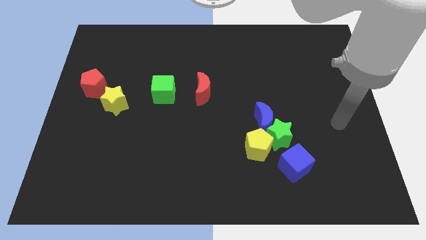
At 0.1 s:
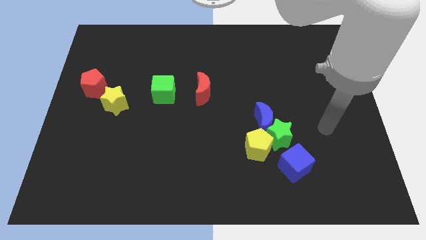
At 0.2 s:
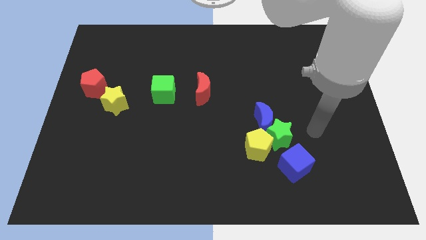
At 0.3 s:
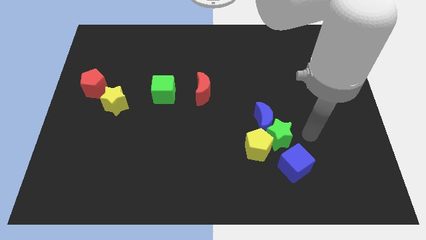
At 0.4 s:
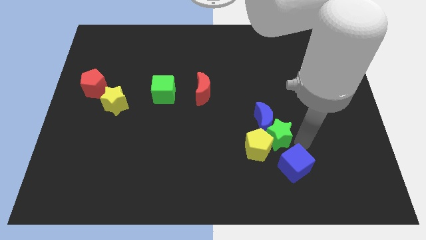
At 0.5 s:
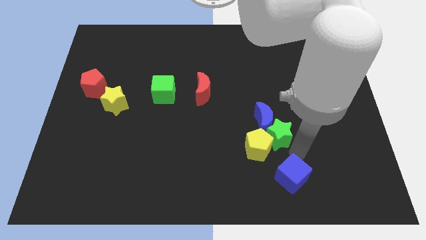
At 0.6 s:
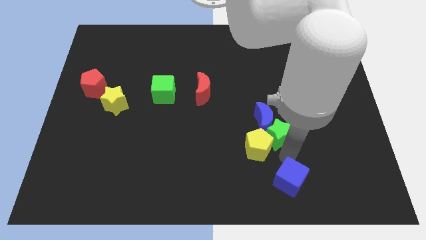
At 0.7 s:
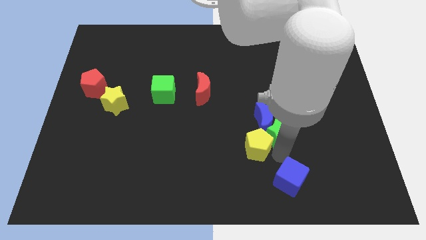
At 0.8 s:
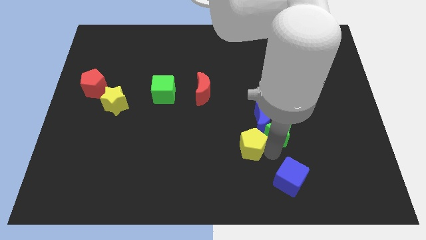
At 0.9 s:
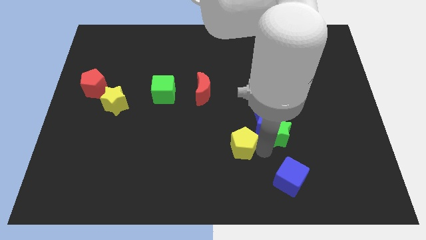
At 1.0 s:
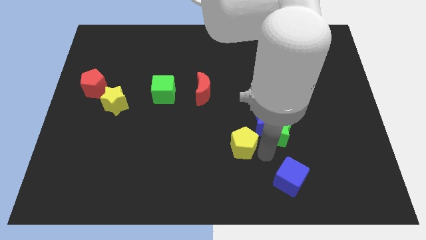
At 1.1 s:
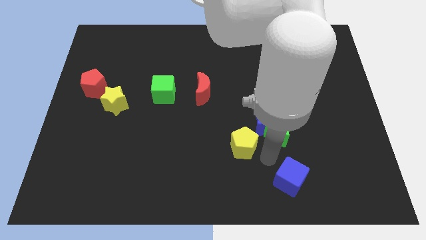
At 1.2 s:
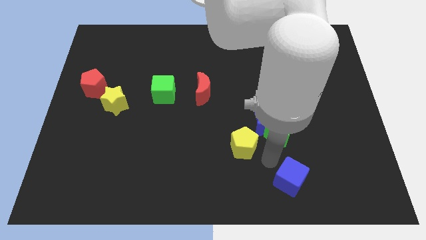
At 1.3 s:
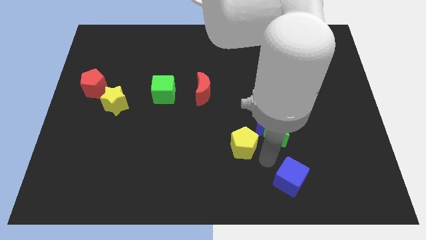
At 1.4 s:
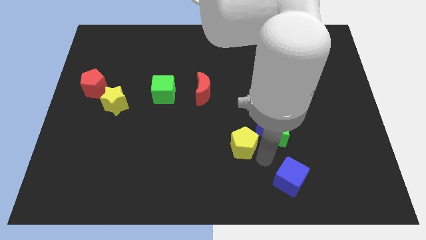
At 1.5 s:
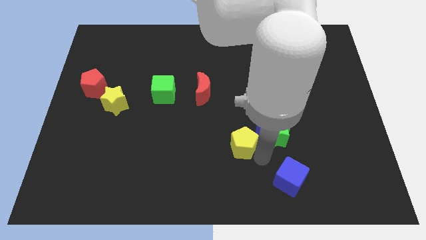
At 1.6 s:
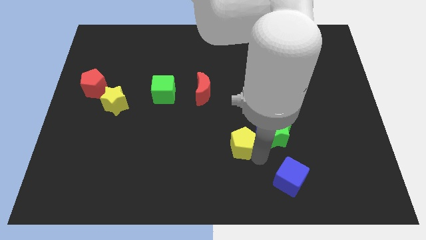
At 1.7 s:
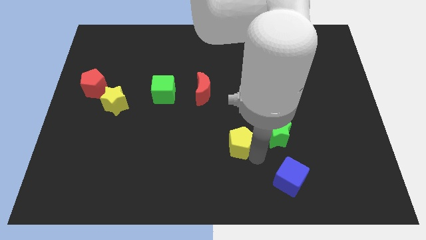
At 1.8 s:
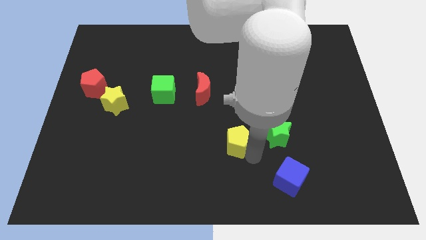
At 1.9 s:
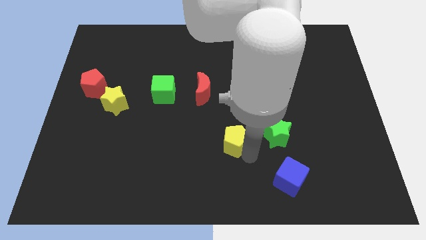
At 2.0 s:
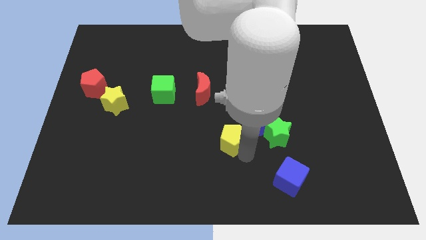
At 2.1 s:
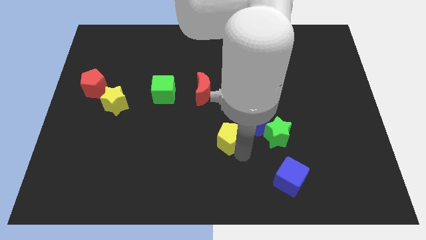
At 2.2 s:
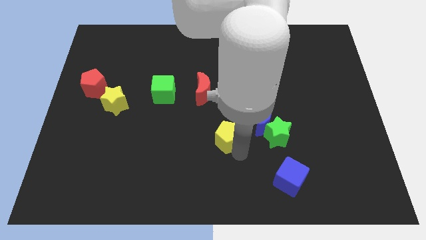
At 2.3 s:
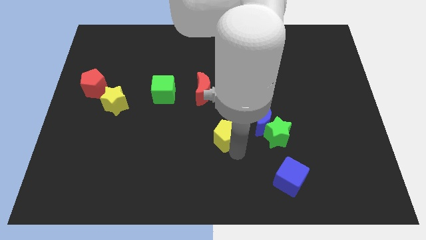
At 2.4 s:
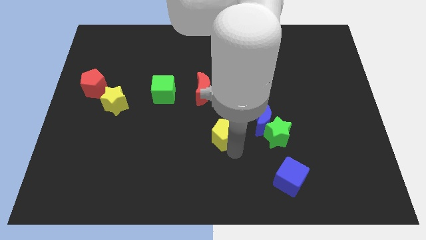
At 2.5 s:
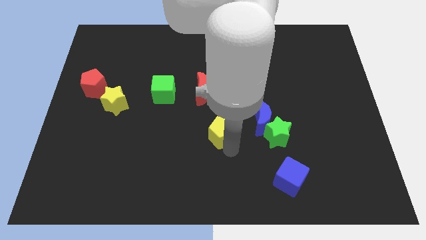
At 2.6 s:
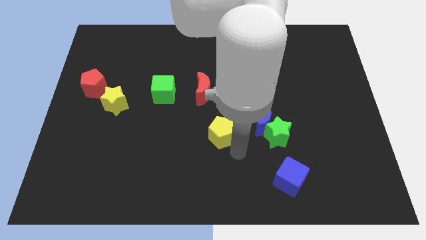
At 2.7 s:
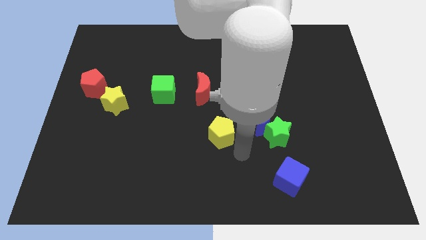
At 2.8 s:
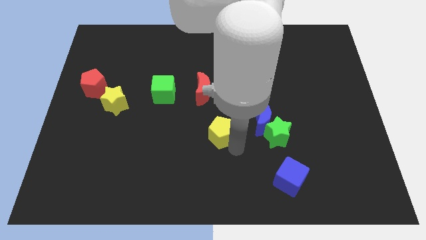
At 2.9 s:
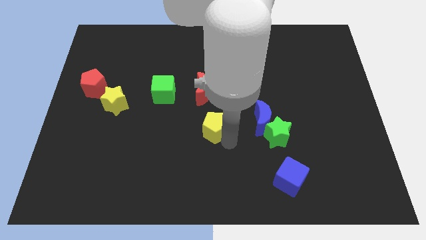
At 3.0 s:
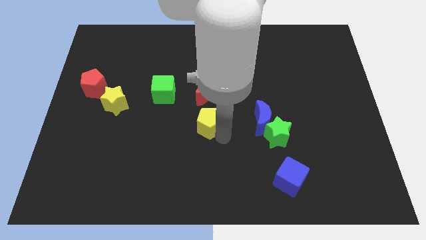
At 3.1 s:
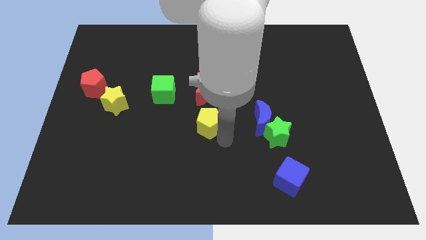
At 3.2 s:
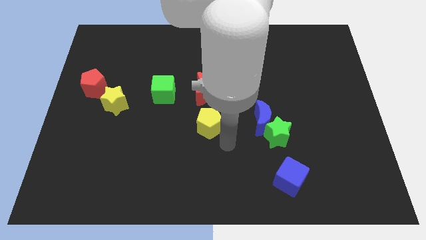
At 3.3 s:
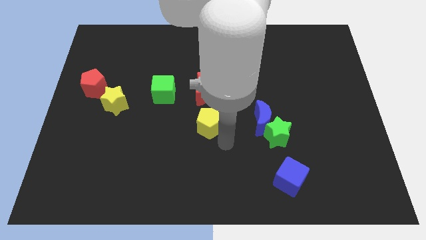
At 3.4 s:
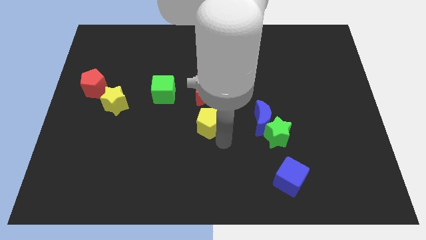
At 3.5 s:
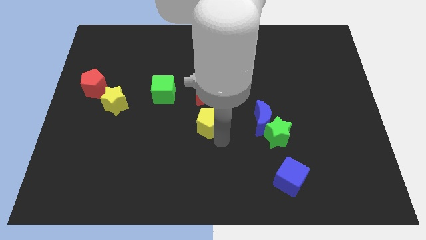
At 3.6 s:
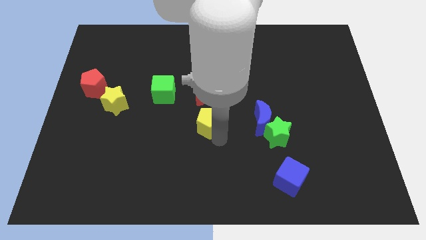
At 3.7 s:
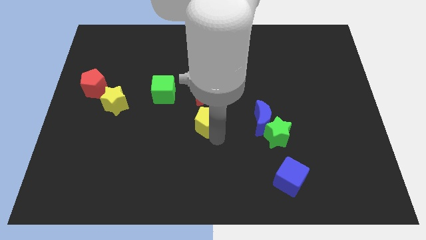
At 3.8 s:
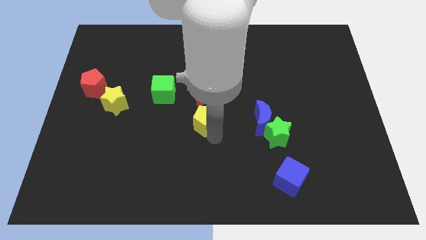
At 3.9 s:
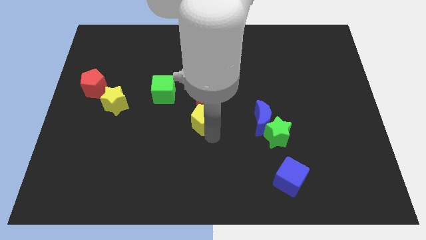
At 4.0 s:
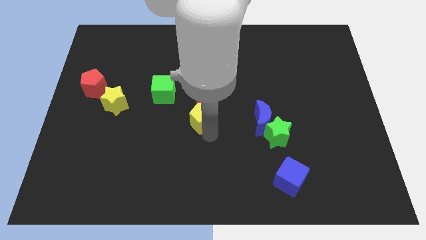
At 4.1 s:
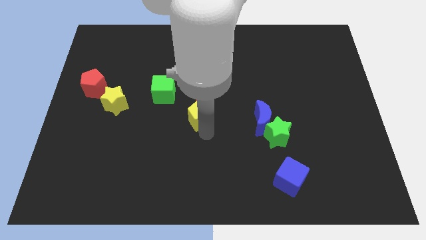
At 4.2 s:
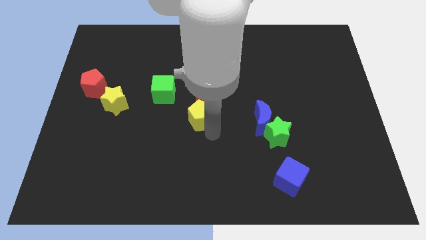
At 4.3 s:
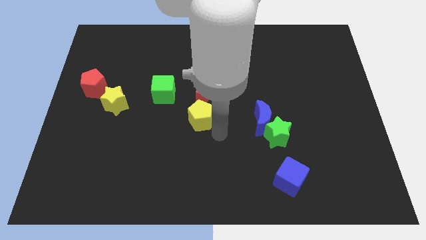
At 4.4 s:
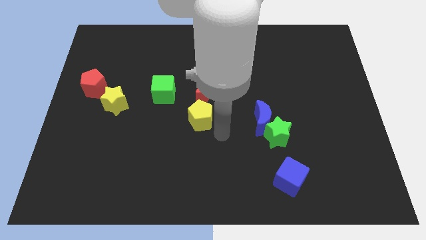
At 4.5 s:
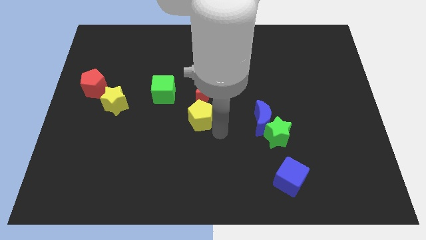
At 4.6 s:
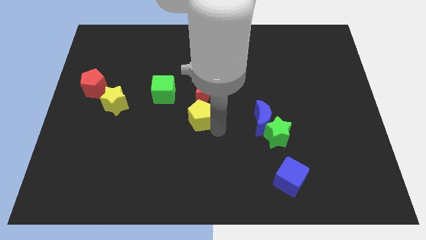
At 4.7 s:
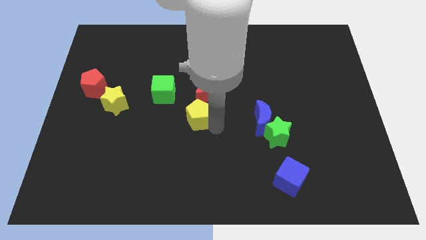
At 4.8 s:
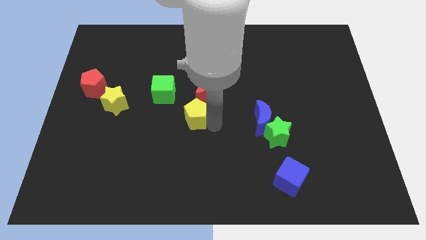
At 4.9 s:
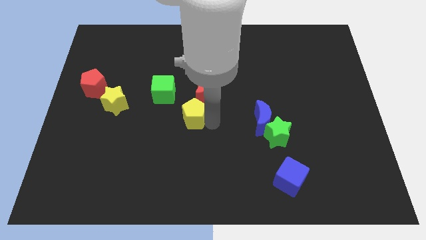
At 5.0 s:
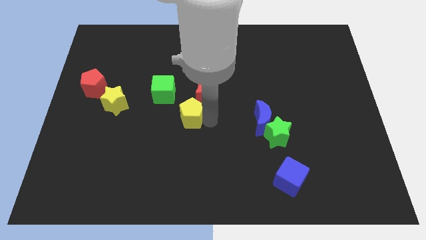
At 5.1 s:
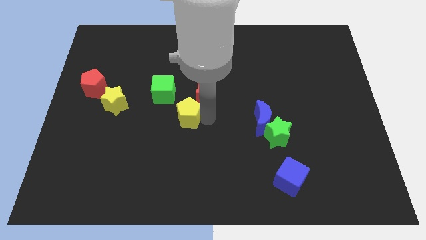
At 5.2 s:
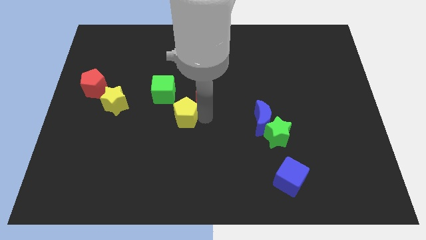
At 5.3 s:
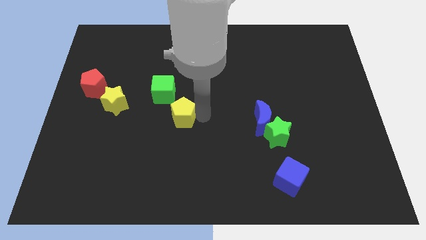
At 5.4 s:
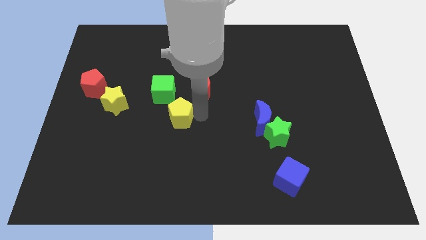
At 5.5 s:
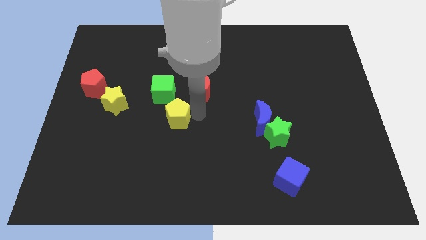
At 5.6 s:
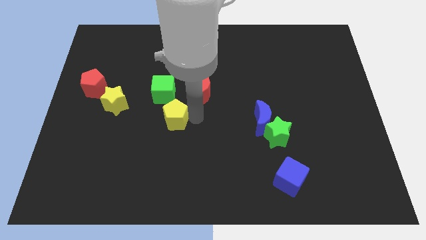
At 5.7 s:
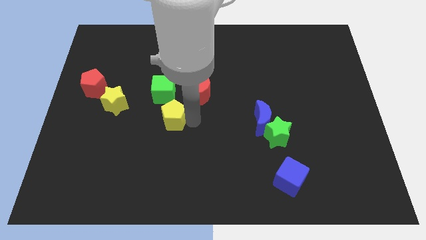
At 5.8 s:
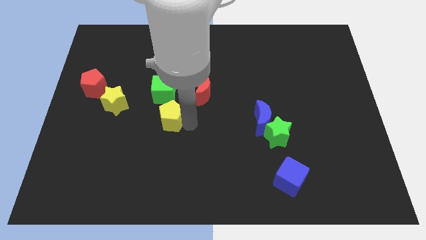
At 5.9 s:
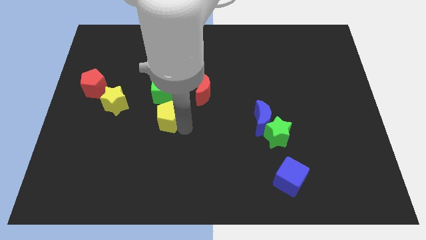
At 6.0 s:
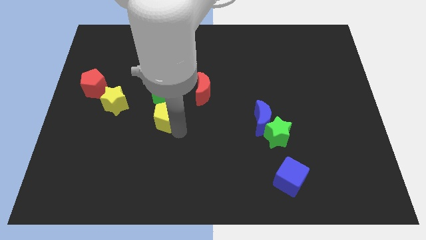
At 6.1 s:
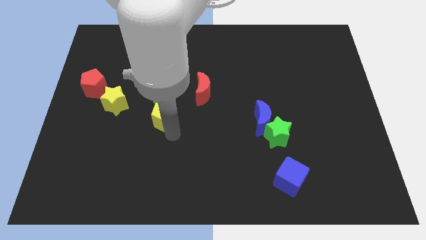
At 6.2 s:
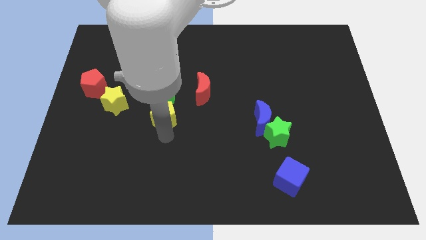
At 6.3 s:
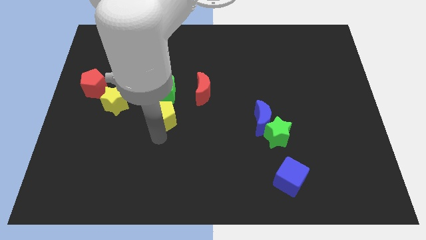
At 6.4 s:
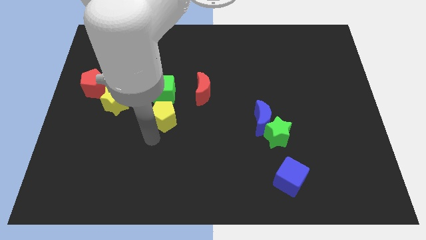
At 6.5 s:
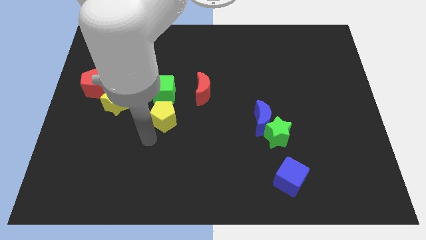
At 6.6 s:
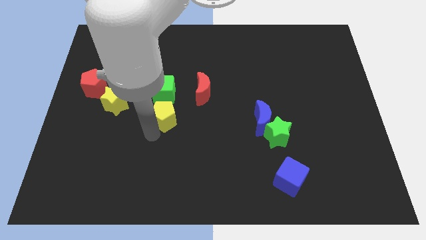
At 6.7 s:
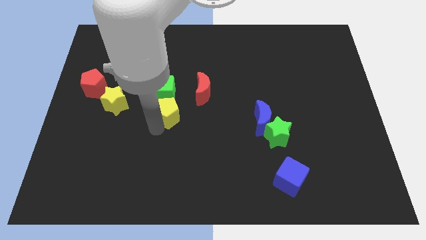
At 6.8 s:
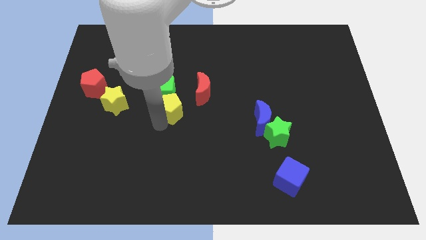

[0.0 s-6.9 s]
put the yellow pentagon next to the green cube

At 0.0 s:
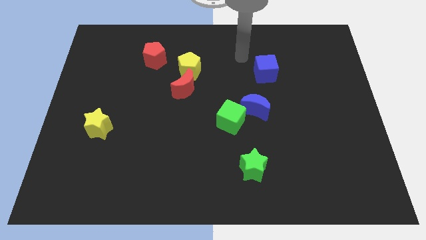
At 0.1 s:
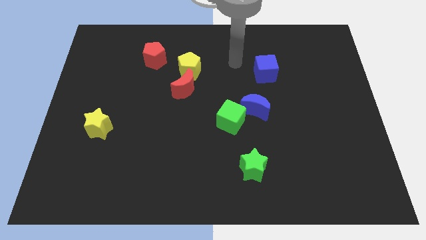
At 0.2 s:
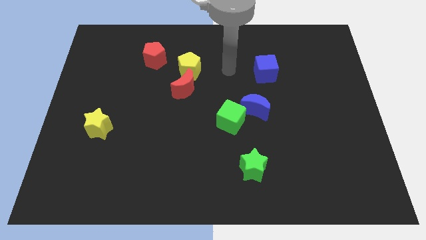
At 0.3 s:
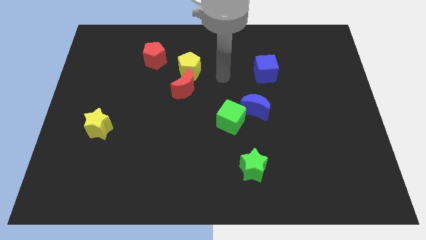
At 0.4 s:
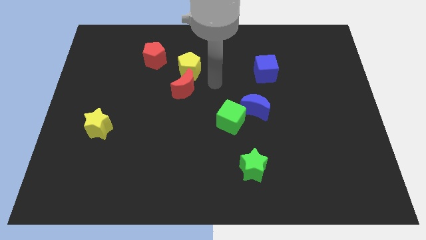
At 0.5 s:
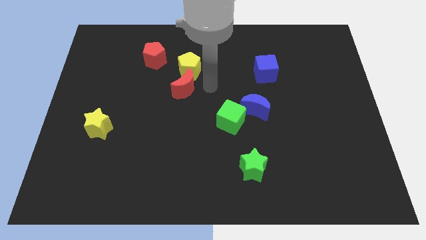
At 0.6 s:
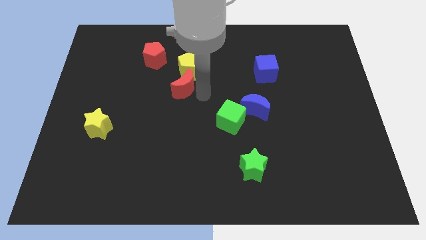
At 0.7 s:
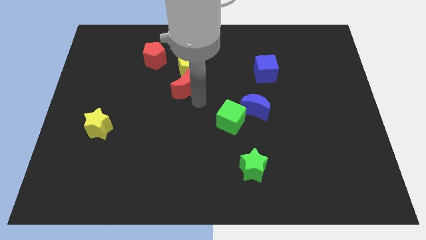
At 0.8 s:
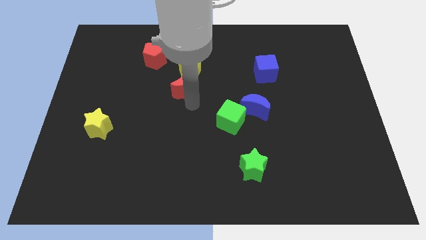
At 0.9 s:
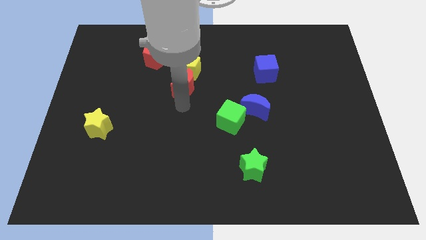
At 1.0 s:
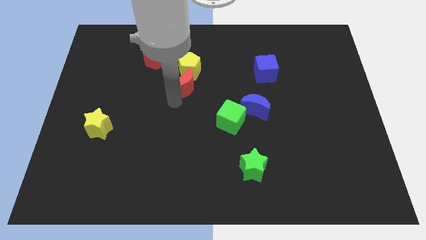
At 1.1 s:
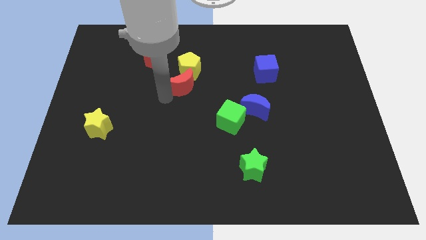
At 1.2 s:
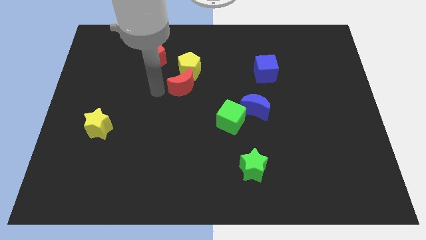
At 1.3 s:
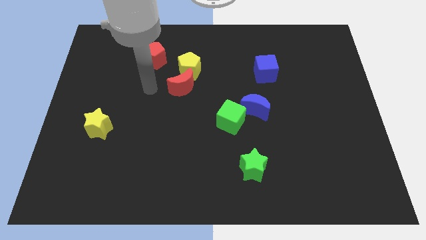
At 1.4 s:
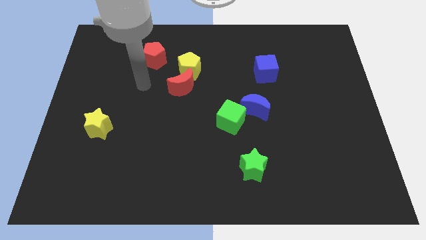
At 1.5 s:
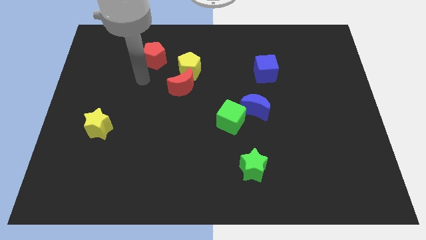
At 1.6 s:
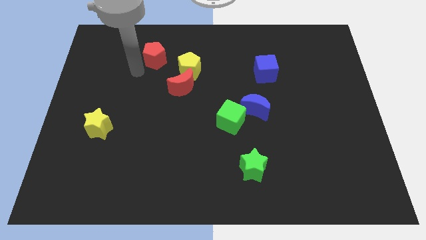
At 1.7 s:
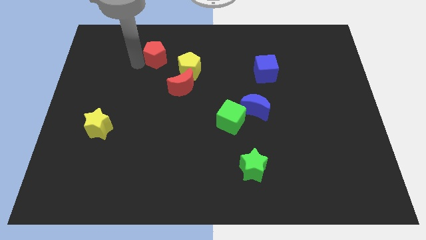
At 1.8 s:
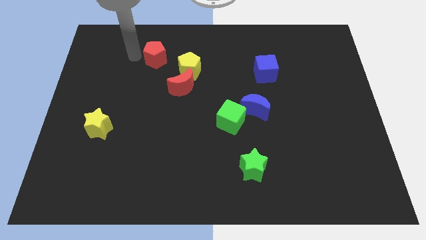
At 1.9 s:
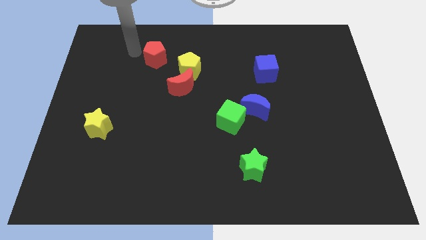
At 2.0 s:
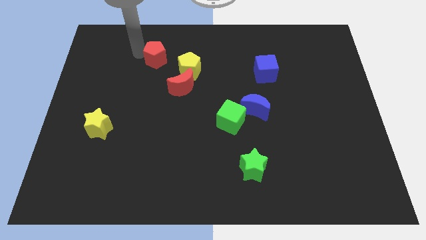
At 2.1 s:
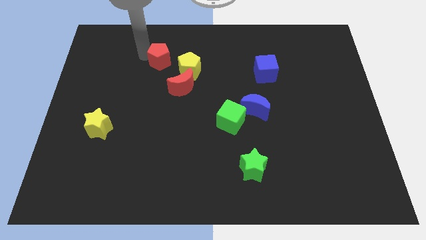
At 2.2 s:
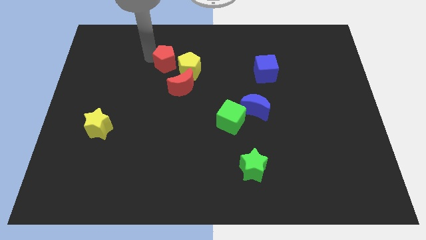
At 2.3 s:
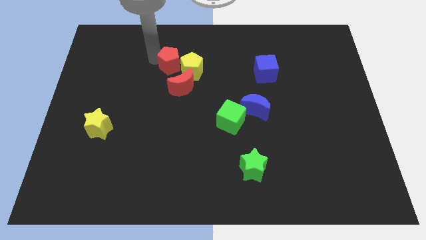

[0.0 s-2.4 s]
put the red pentagon next to the yellow pentagon
